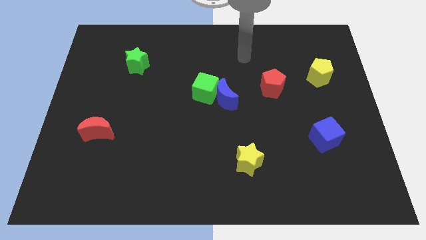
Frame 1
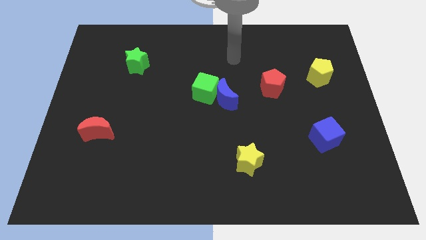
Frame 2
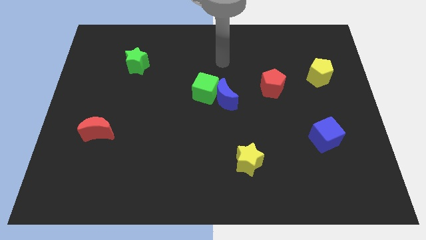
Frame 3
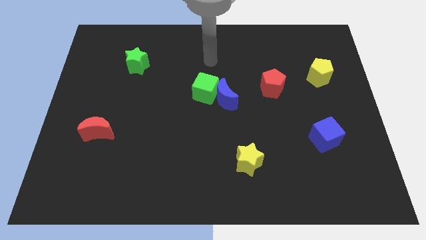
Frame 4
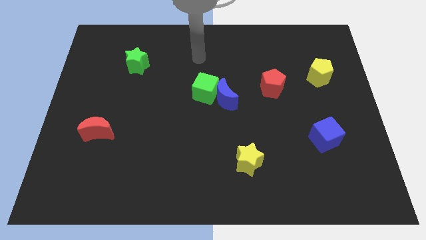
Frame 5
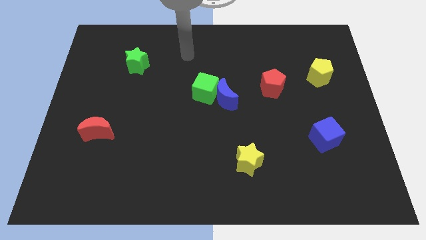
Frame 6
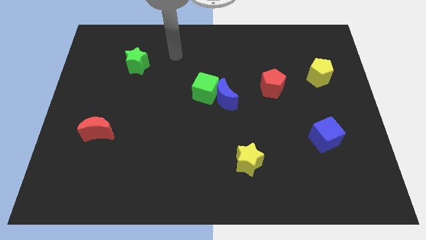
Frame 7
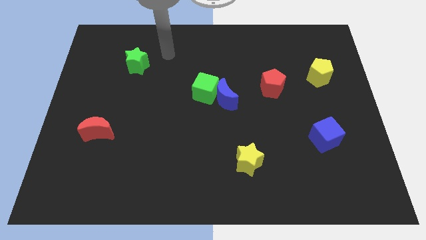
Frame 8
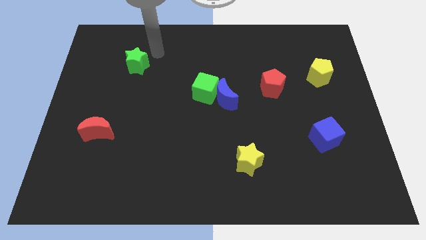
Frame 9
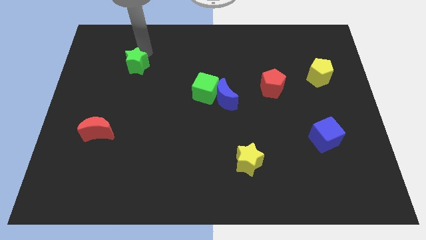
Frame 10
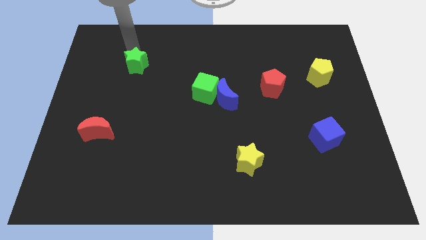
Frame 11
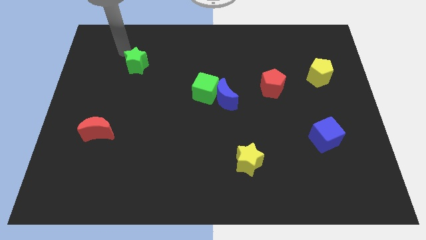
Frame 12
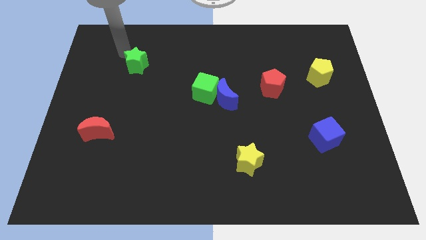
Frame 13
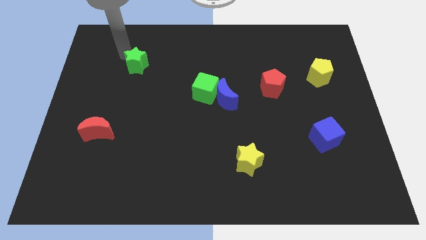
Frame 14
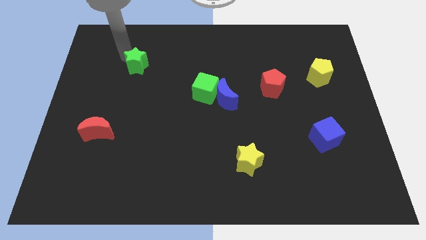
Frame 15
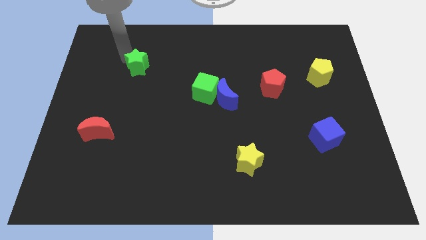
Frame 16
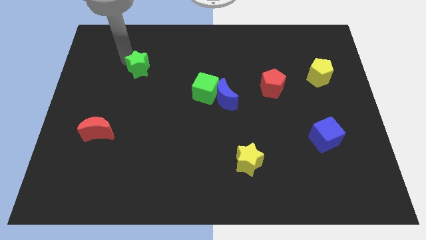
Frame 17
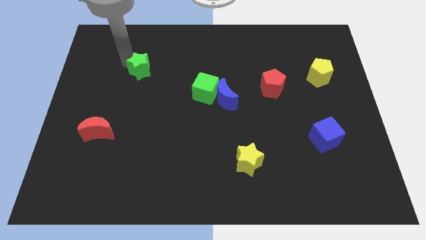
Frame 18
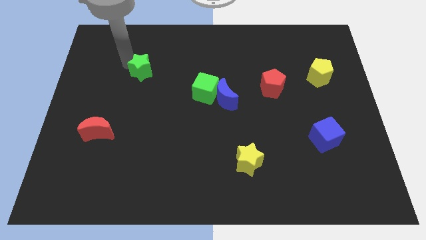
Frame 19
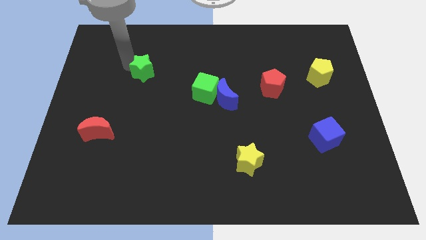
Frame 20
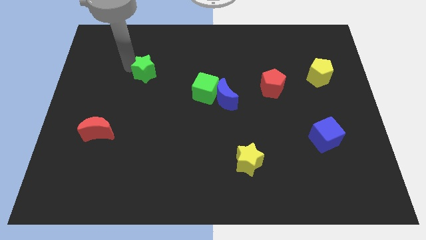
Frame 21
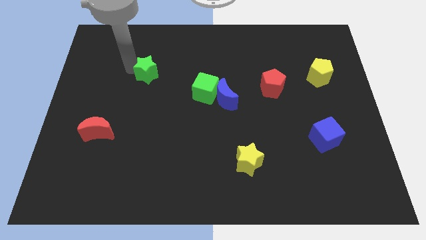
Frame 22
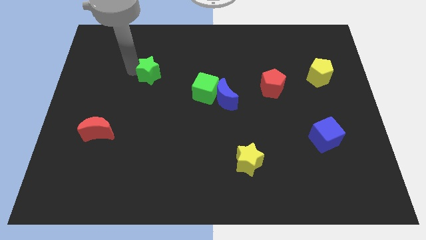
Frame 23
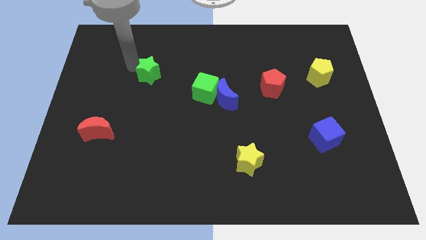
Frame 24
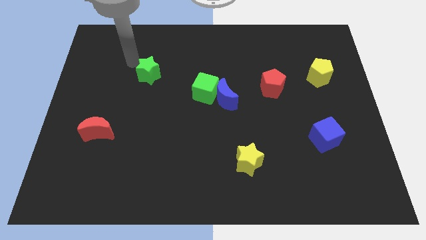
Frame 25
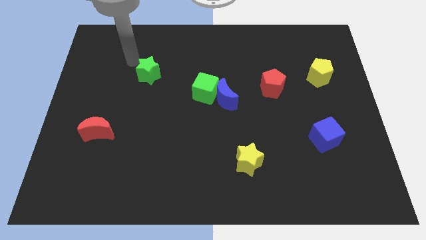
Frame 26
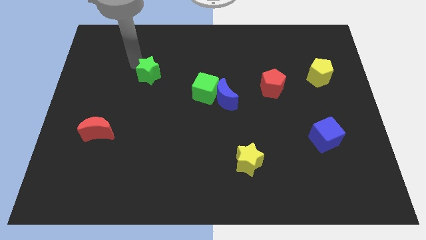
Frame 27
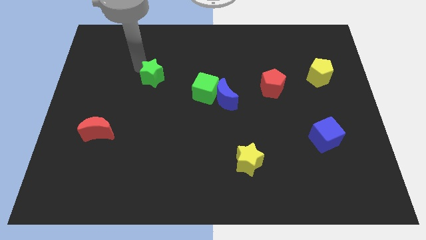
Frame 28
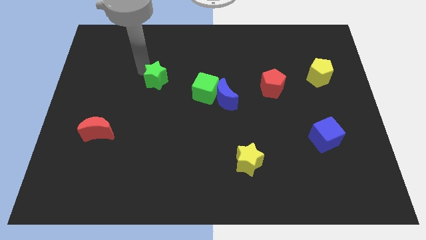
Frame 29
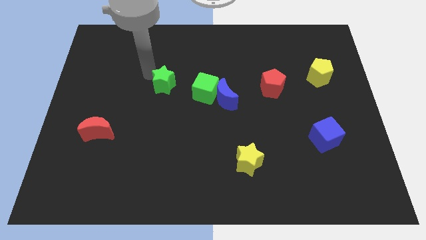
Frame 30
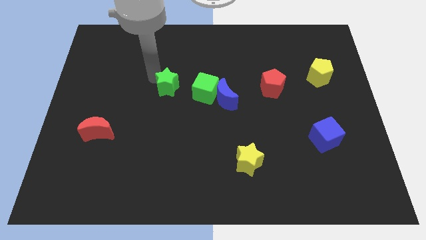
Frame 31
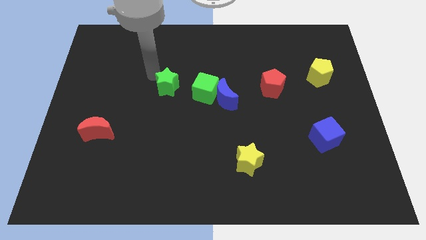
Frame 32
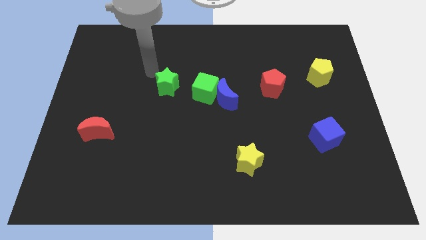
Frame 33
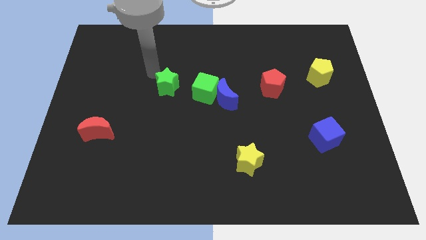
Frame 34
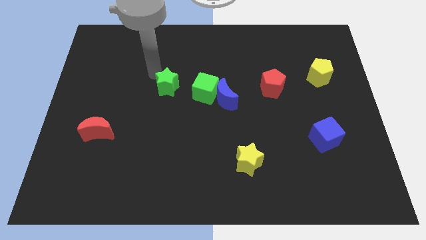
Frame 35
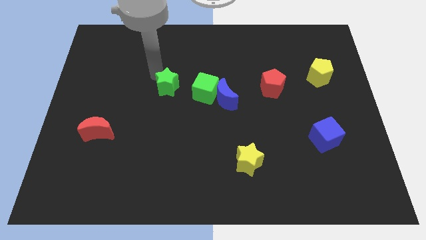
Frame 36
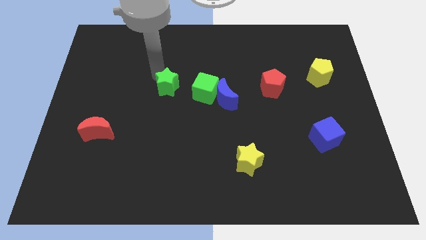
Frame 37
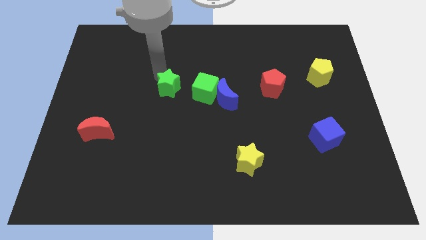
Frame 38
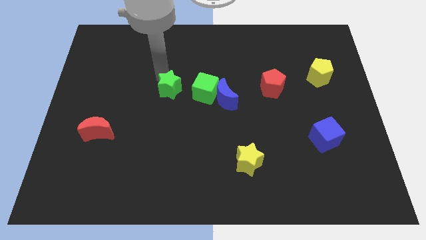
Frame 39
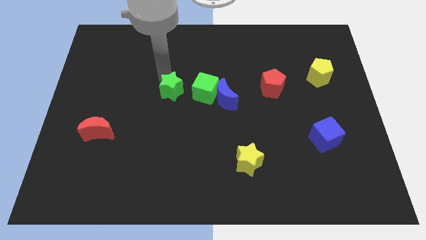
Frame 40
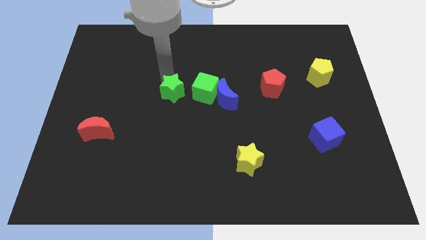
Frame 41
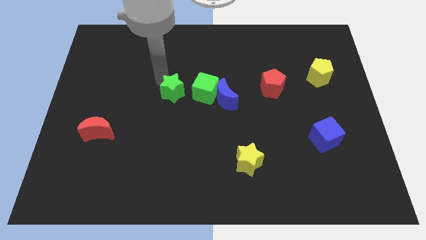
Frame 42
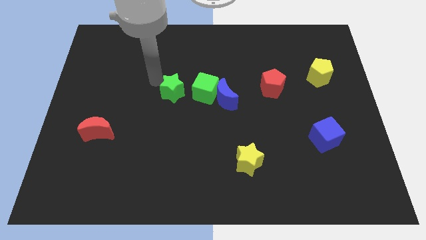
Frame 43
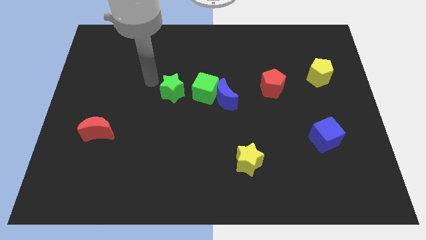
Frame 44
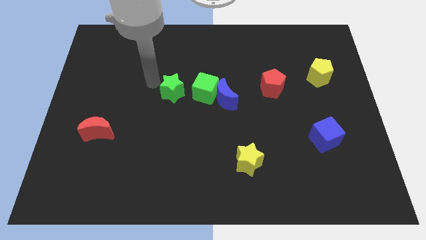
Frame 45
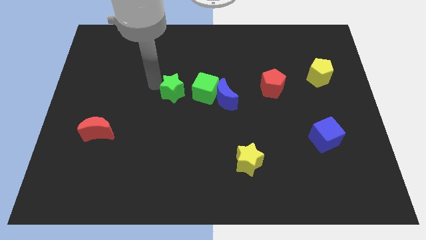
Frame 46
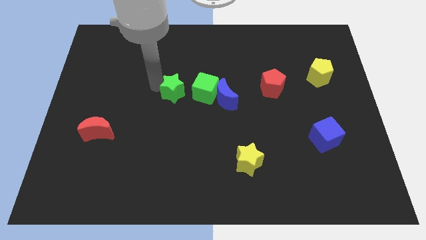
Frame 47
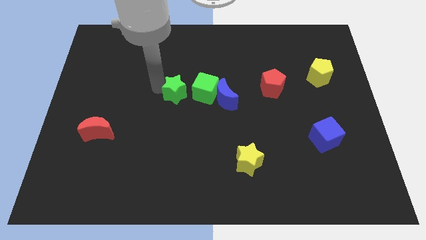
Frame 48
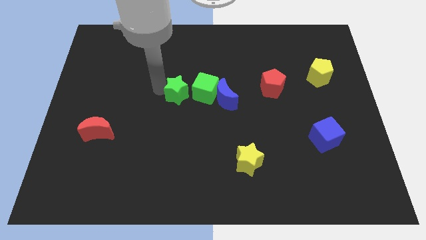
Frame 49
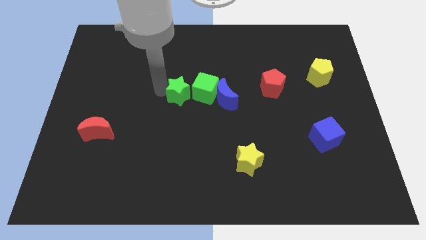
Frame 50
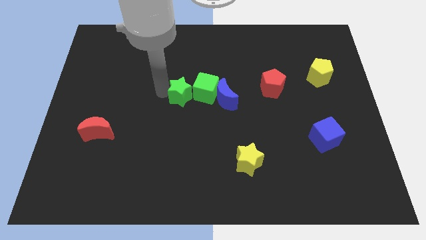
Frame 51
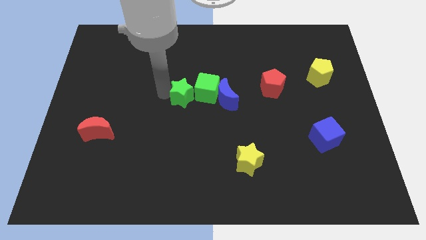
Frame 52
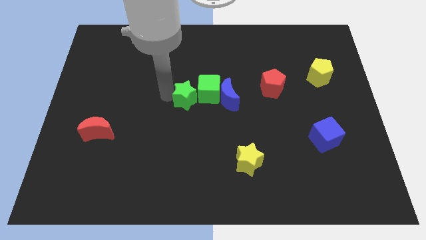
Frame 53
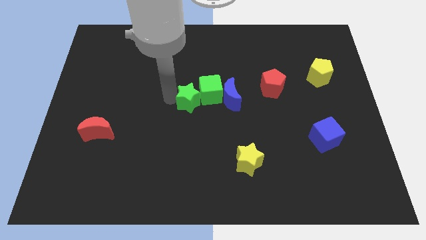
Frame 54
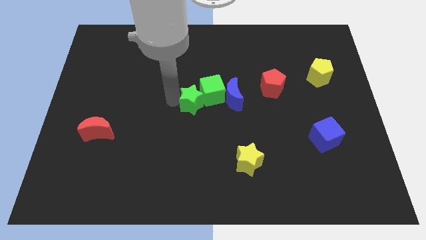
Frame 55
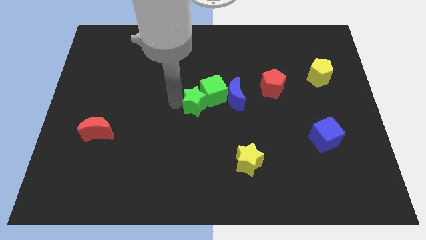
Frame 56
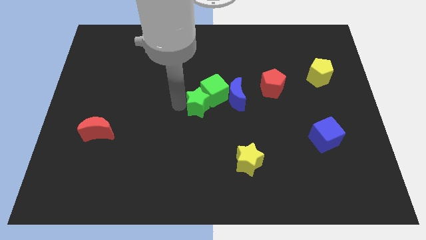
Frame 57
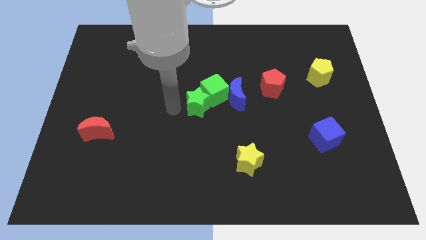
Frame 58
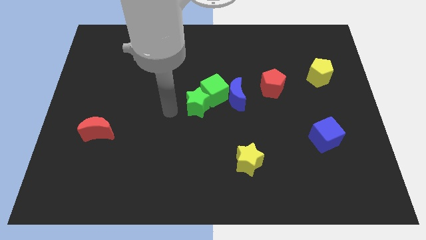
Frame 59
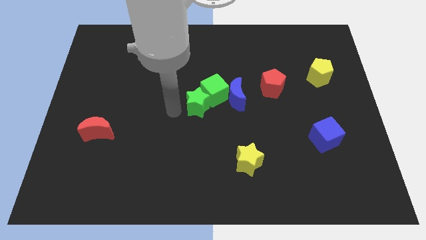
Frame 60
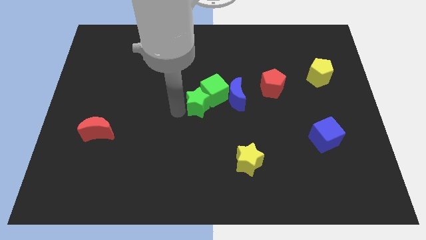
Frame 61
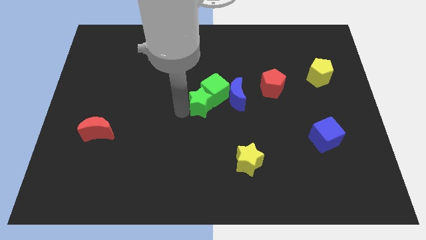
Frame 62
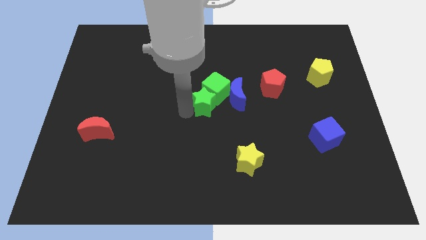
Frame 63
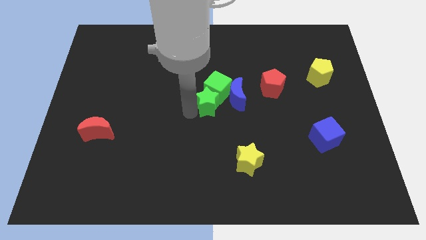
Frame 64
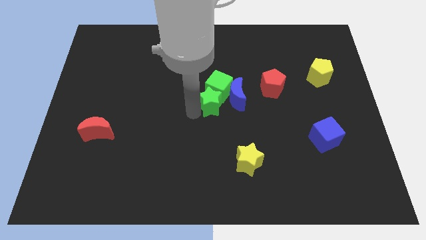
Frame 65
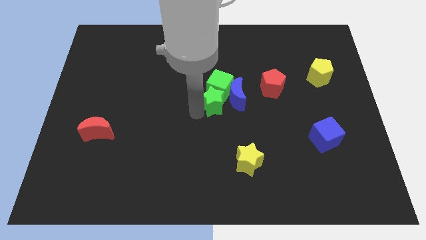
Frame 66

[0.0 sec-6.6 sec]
put the green star to the blue moon
